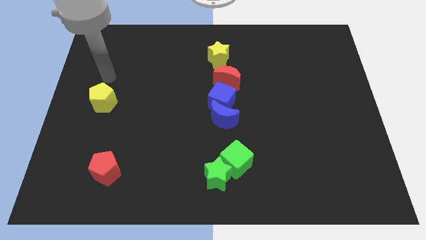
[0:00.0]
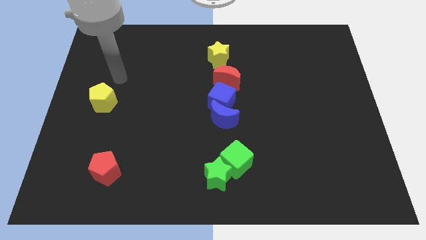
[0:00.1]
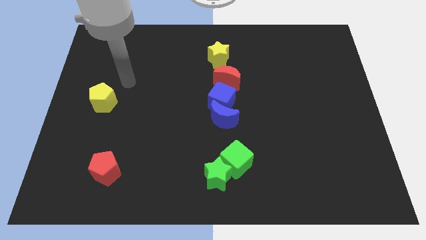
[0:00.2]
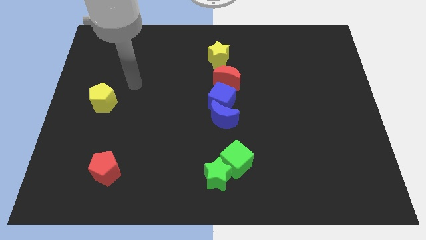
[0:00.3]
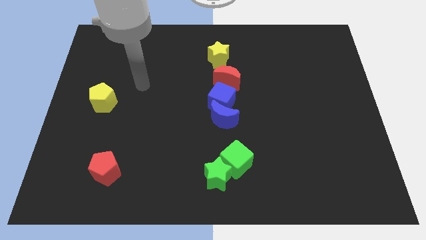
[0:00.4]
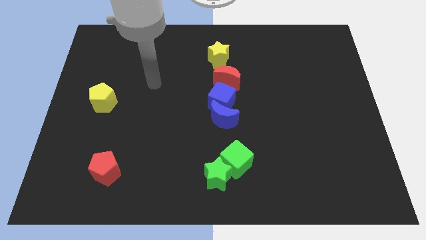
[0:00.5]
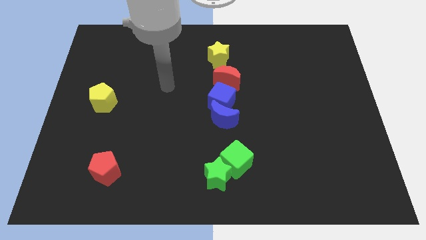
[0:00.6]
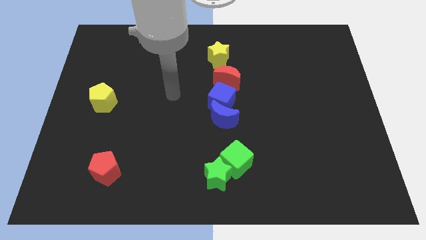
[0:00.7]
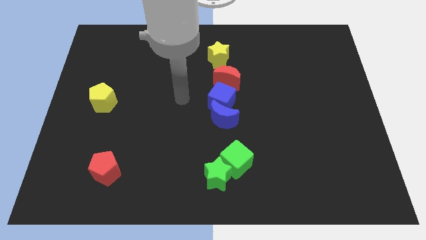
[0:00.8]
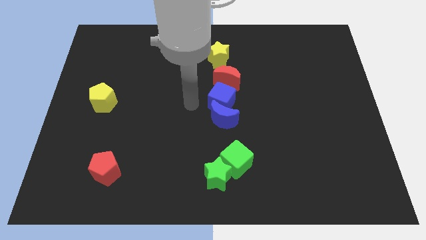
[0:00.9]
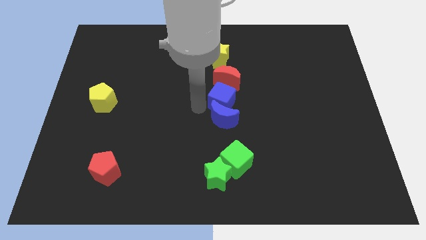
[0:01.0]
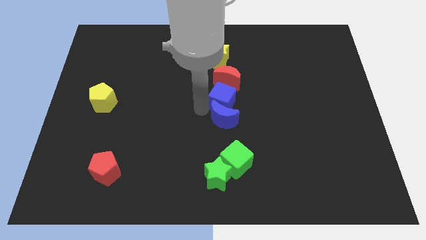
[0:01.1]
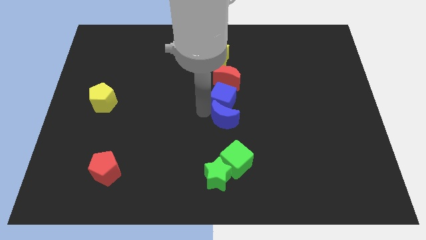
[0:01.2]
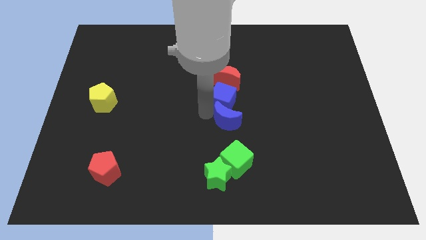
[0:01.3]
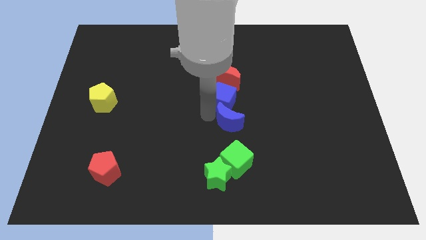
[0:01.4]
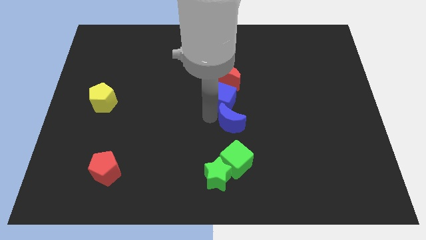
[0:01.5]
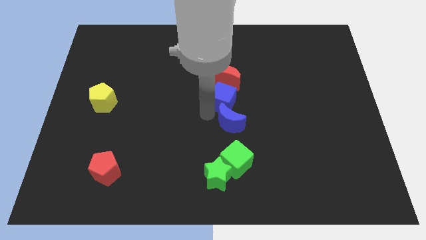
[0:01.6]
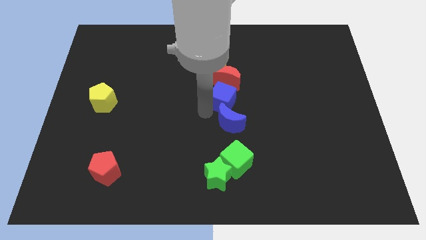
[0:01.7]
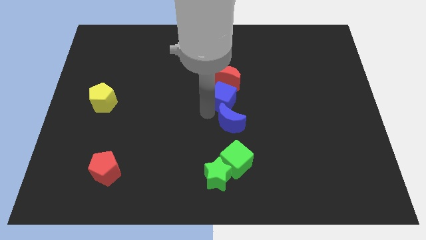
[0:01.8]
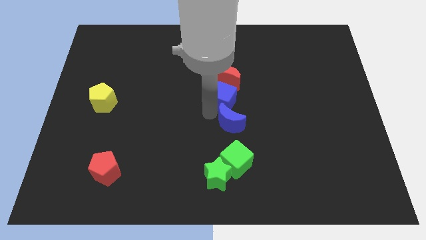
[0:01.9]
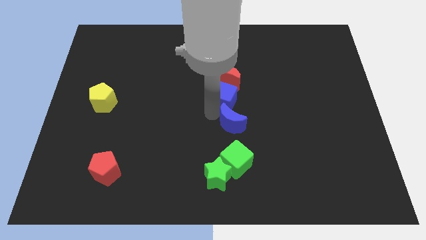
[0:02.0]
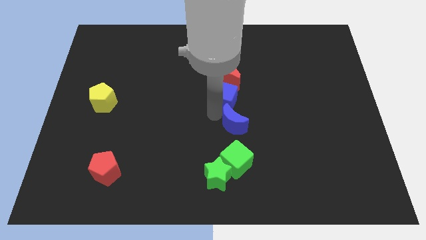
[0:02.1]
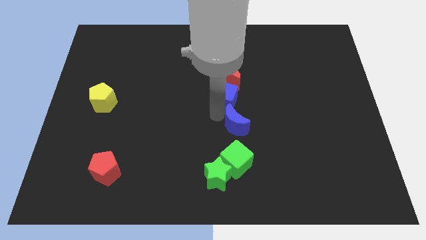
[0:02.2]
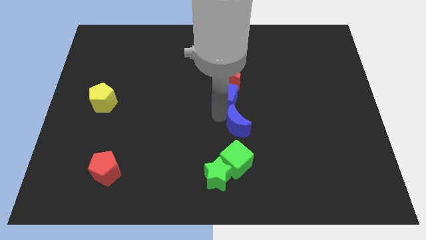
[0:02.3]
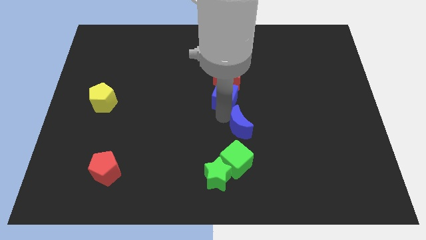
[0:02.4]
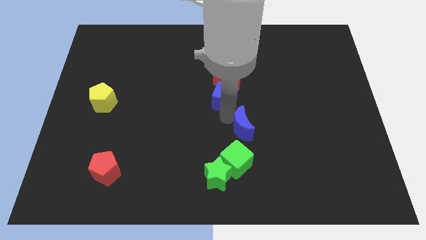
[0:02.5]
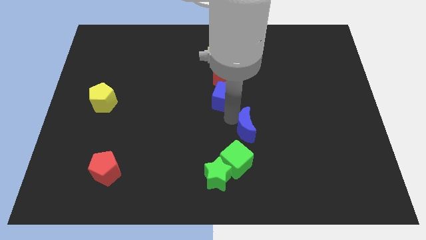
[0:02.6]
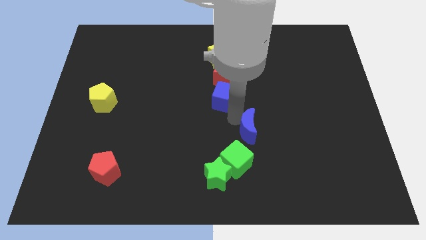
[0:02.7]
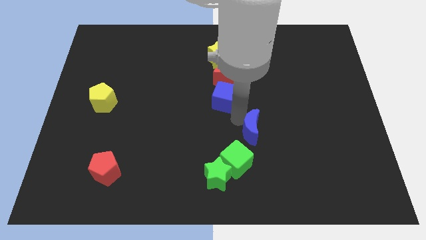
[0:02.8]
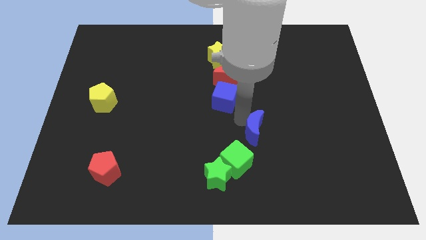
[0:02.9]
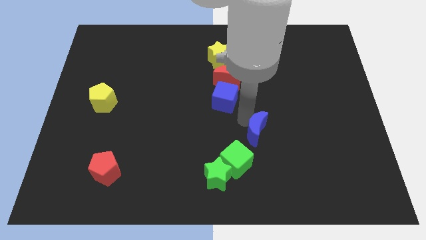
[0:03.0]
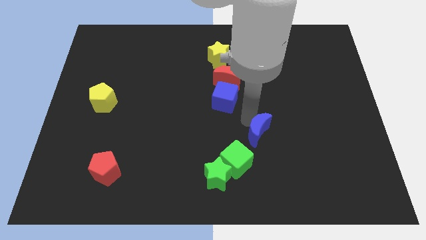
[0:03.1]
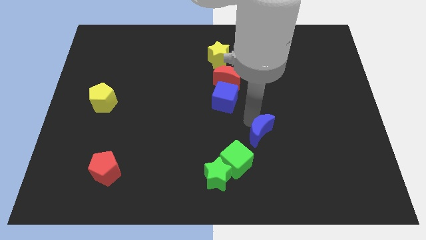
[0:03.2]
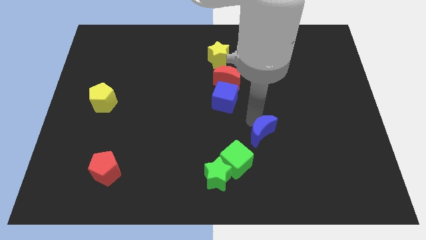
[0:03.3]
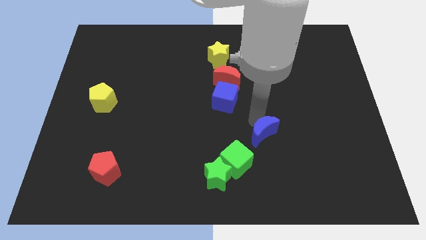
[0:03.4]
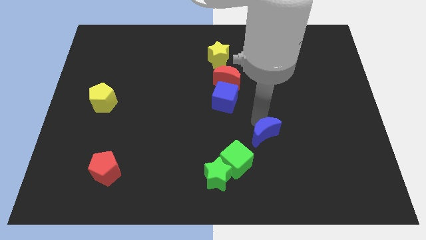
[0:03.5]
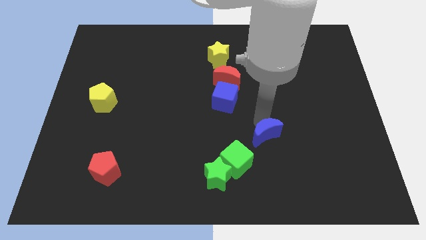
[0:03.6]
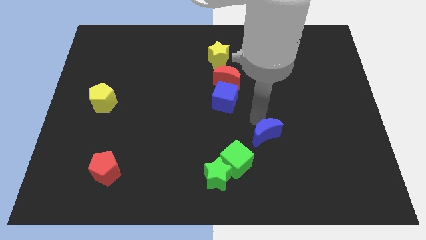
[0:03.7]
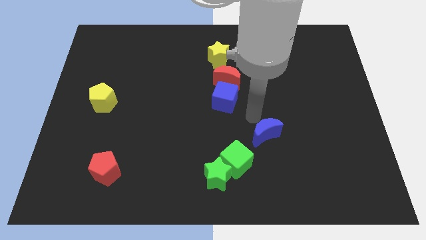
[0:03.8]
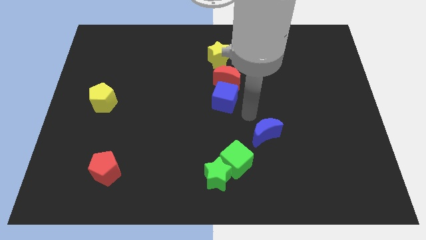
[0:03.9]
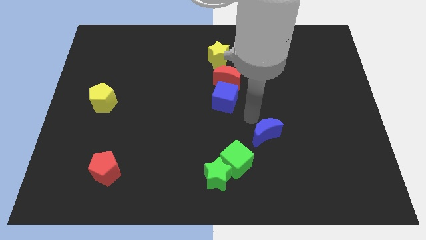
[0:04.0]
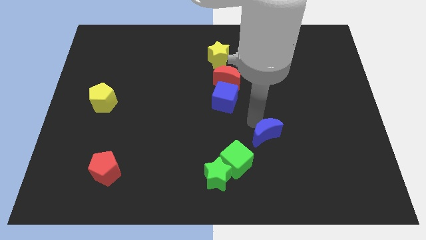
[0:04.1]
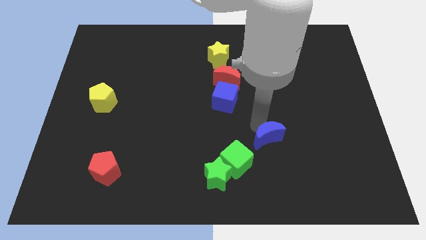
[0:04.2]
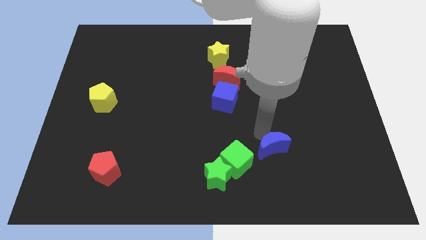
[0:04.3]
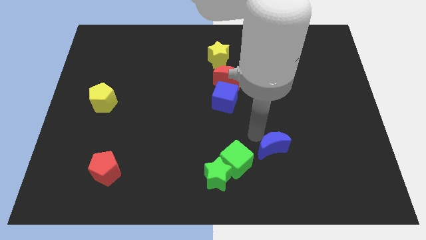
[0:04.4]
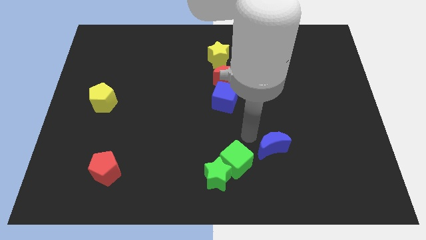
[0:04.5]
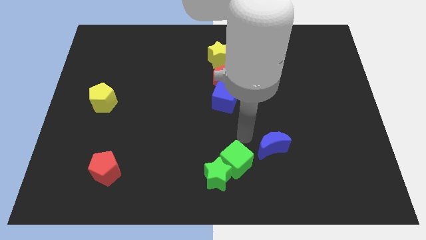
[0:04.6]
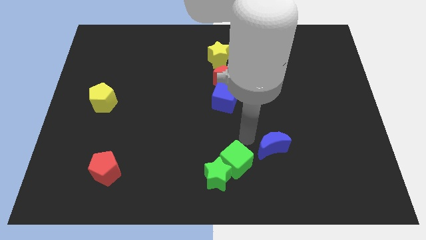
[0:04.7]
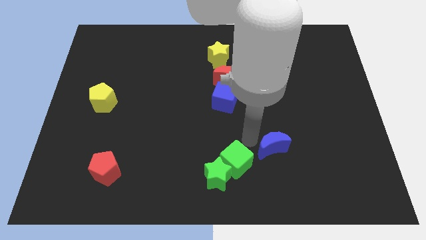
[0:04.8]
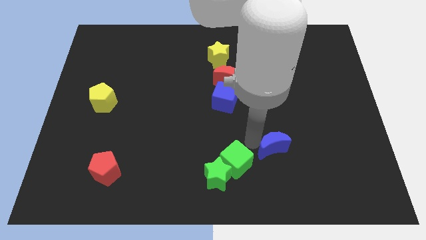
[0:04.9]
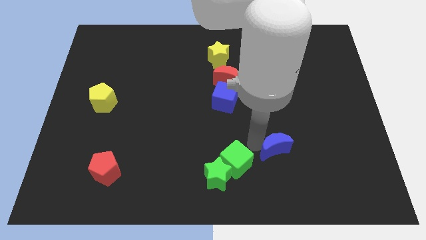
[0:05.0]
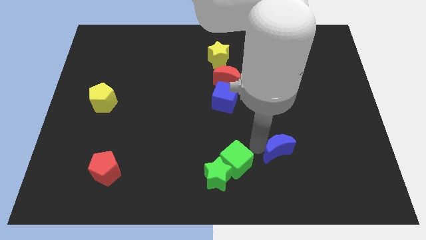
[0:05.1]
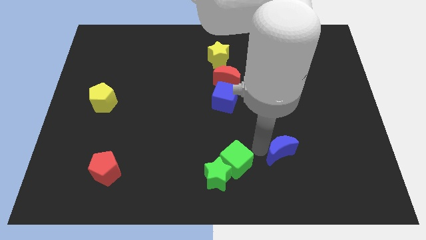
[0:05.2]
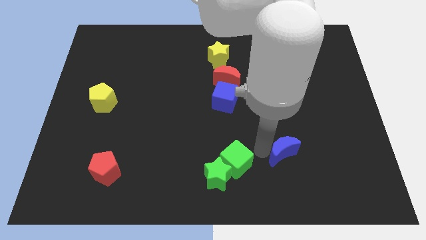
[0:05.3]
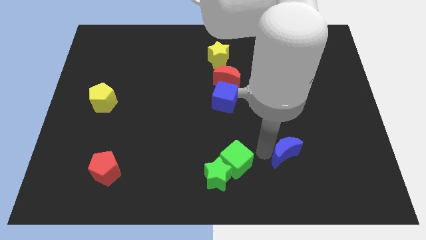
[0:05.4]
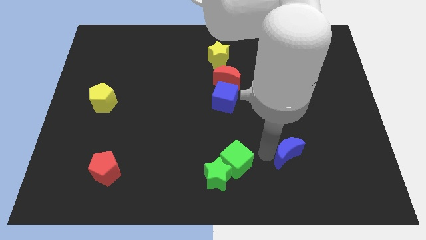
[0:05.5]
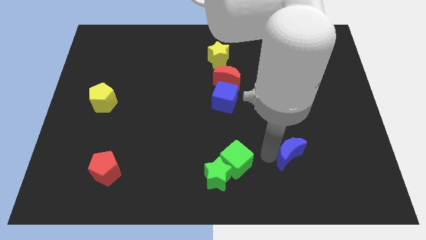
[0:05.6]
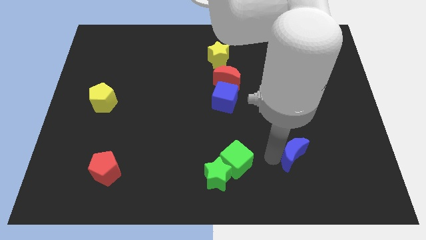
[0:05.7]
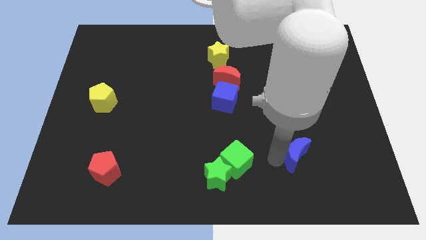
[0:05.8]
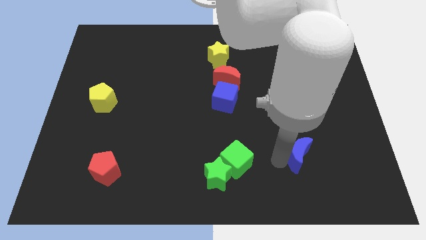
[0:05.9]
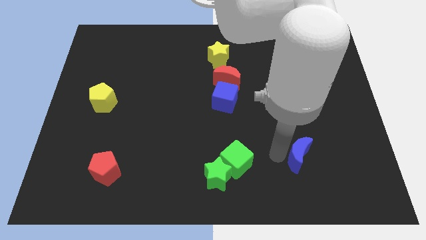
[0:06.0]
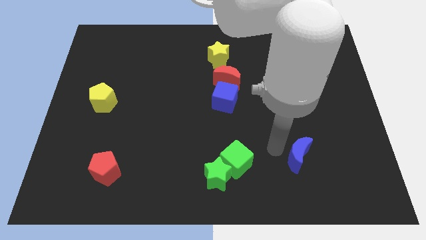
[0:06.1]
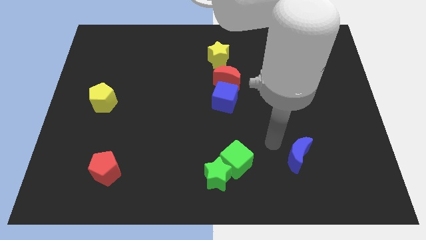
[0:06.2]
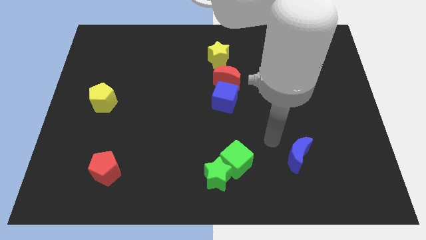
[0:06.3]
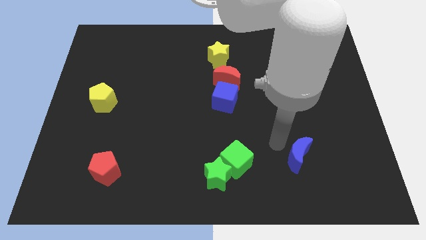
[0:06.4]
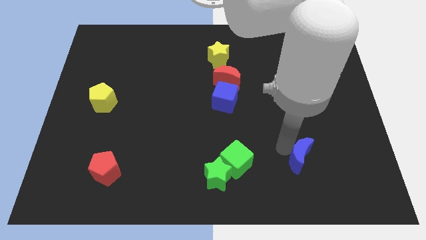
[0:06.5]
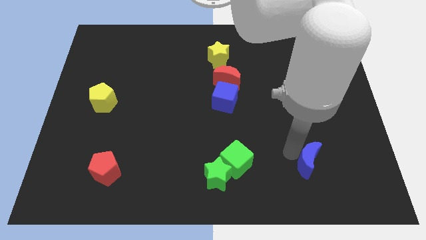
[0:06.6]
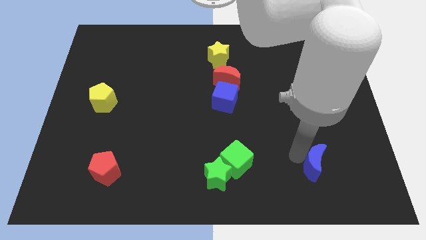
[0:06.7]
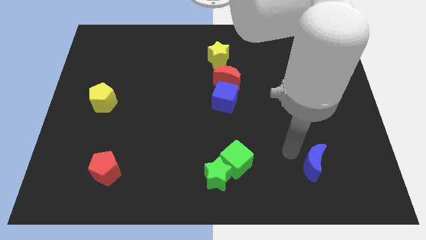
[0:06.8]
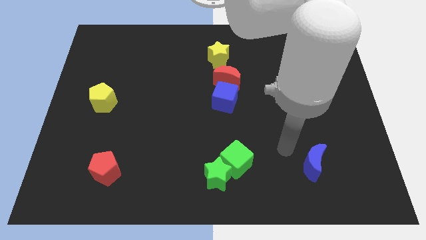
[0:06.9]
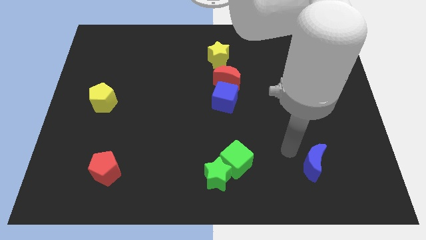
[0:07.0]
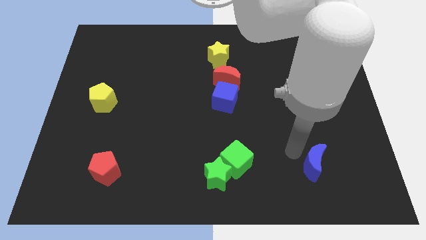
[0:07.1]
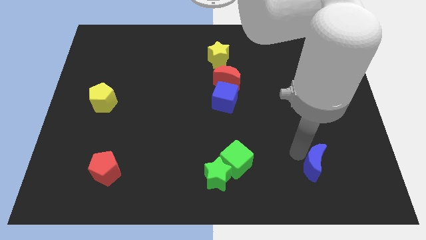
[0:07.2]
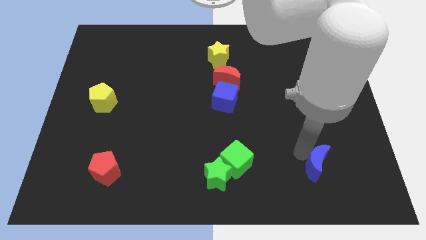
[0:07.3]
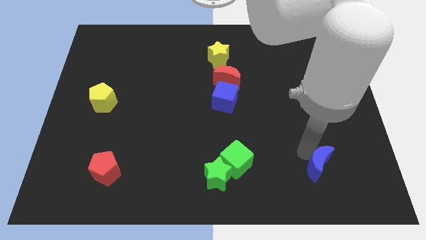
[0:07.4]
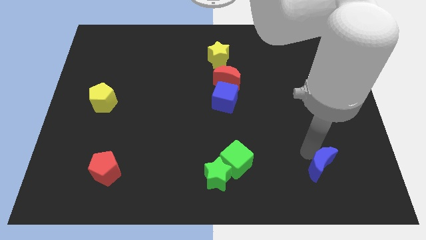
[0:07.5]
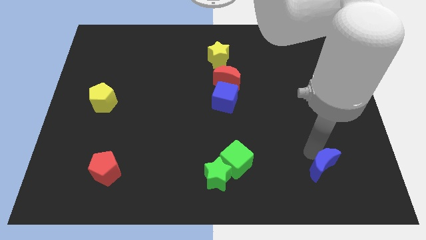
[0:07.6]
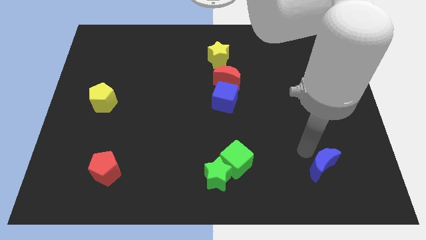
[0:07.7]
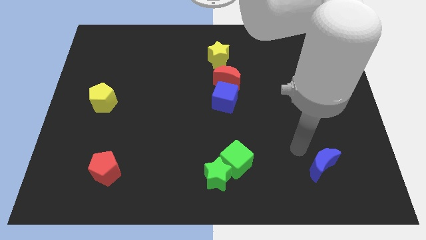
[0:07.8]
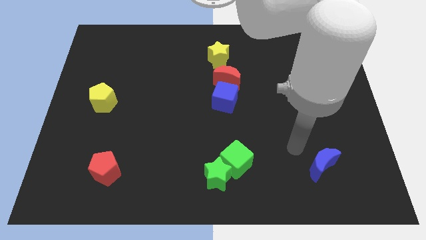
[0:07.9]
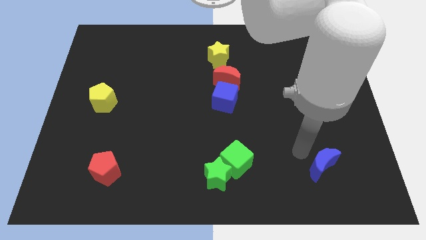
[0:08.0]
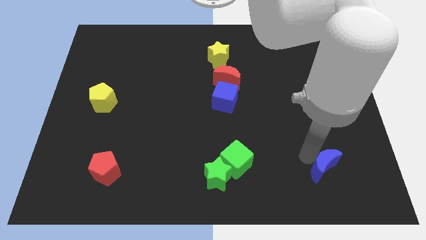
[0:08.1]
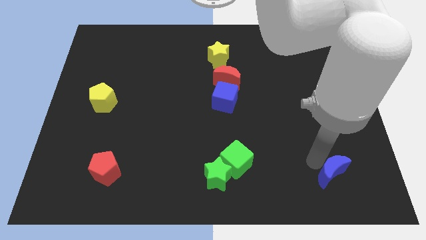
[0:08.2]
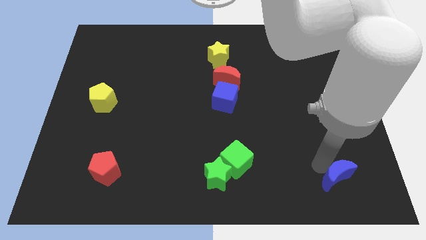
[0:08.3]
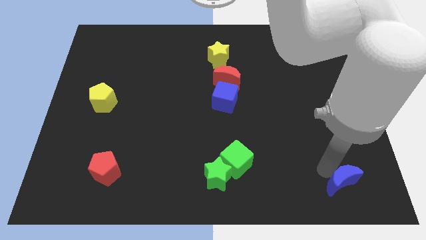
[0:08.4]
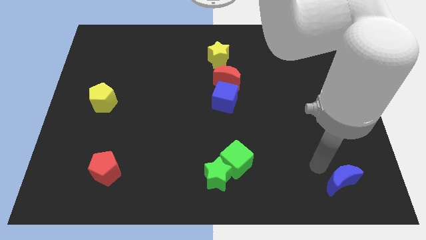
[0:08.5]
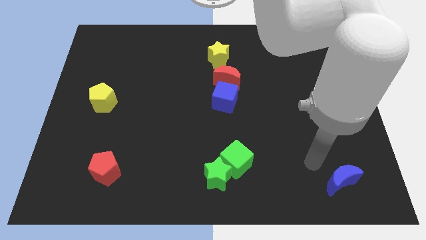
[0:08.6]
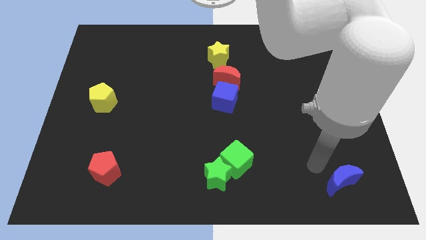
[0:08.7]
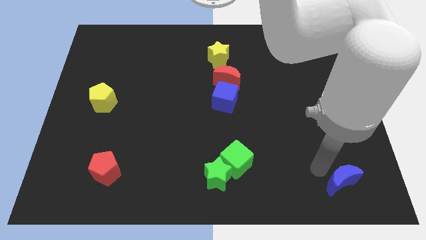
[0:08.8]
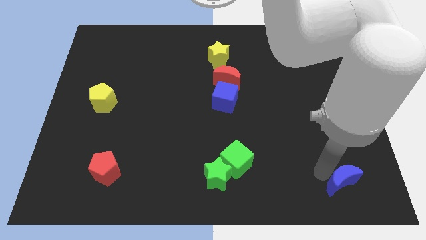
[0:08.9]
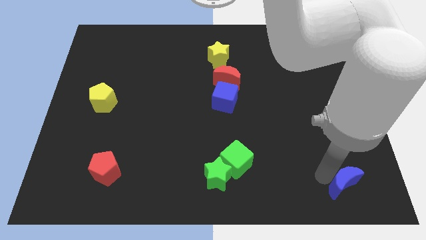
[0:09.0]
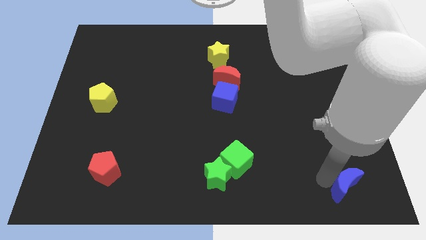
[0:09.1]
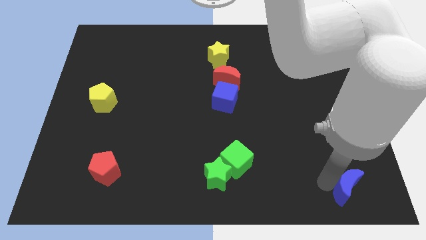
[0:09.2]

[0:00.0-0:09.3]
slide the blue moon to the bottom right corner
